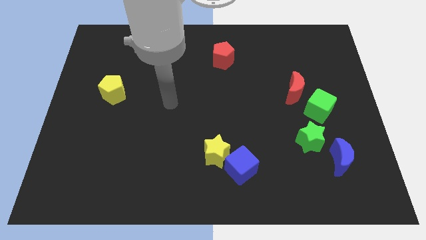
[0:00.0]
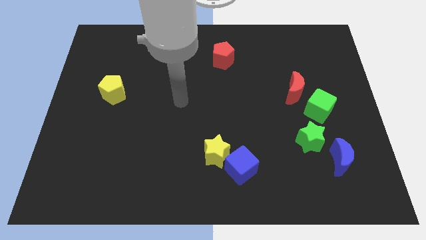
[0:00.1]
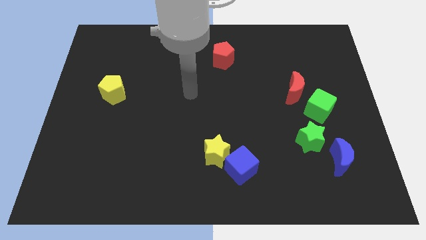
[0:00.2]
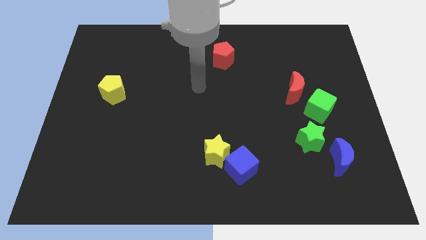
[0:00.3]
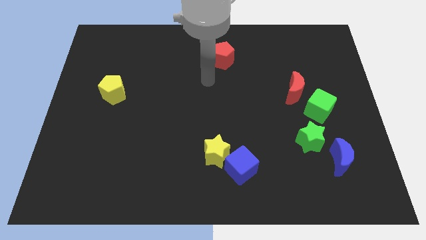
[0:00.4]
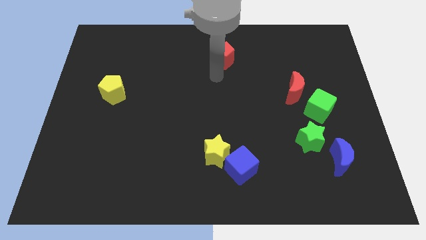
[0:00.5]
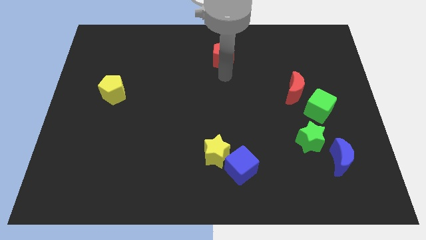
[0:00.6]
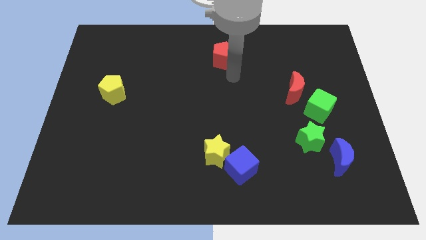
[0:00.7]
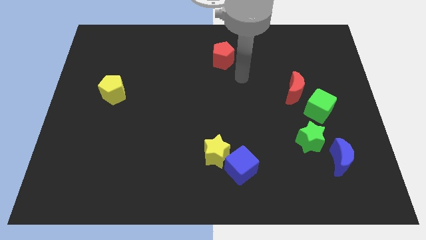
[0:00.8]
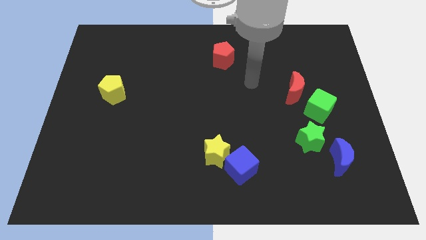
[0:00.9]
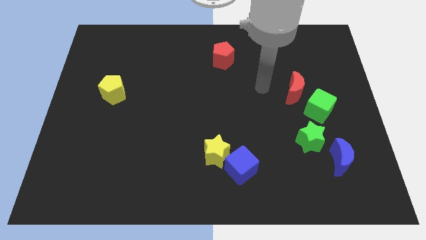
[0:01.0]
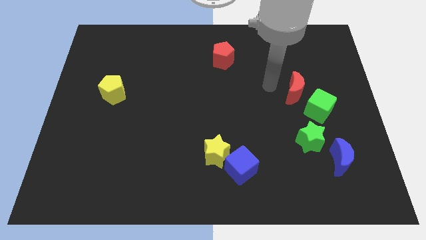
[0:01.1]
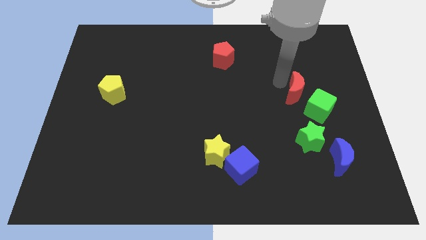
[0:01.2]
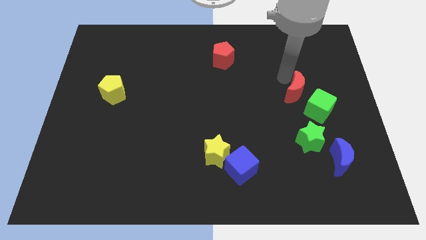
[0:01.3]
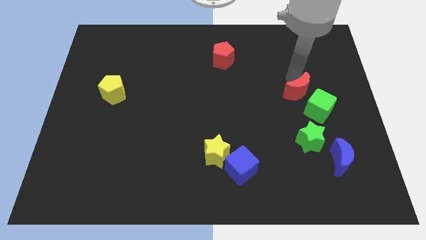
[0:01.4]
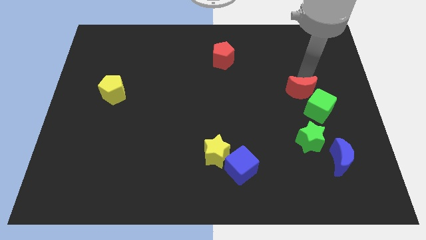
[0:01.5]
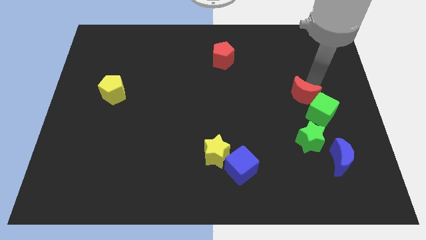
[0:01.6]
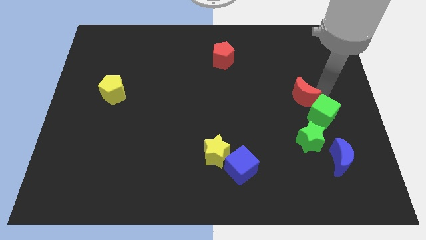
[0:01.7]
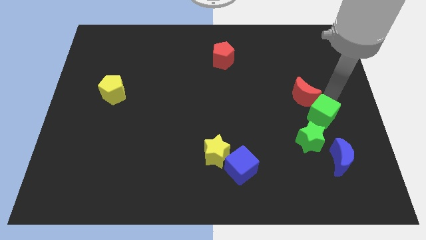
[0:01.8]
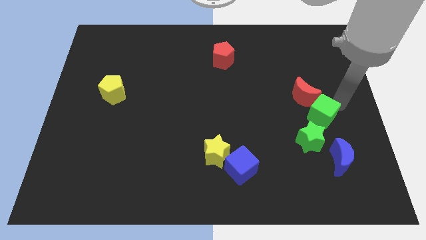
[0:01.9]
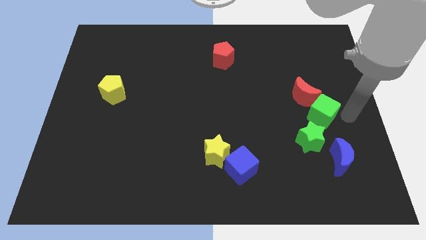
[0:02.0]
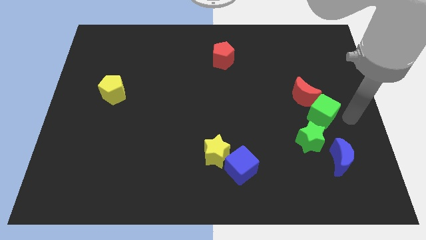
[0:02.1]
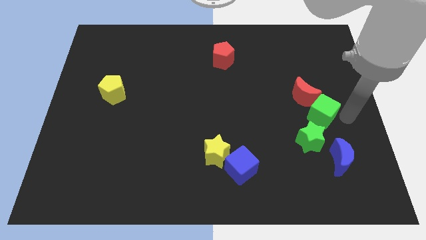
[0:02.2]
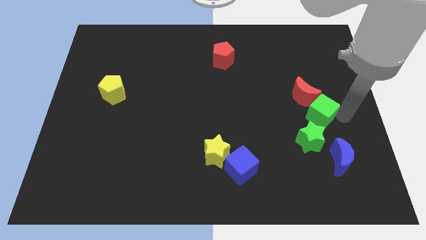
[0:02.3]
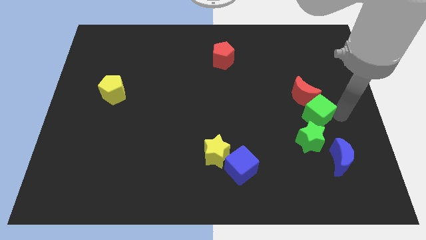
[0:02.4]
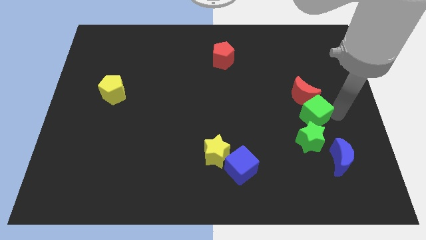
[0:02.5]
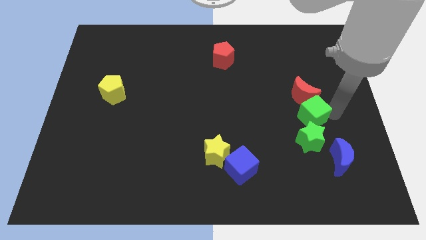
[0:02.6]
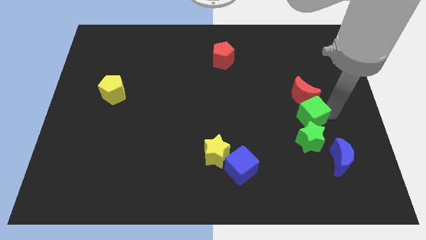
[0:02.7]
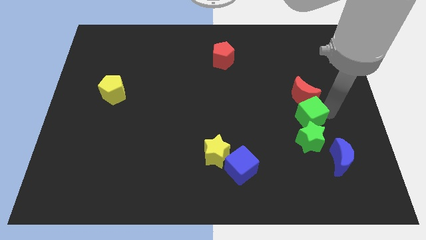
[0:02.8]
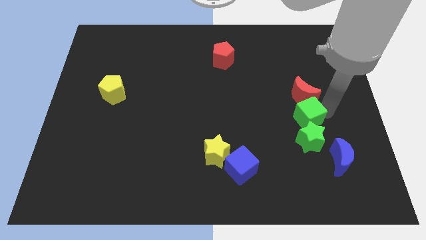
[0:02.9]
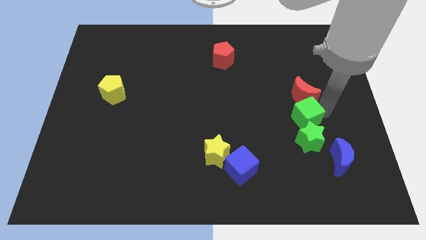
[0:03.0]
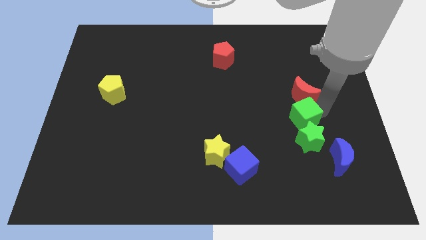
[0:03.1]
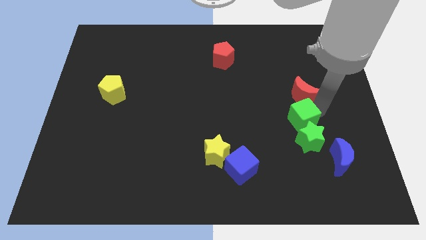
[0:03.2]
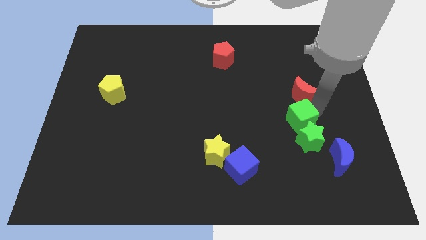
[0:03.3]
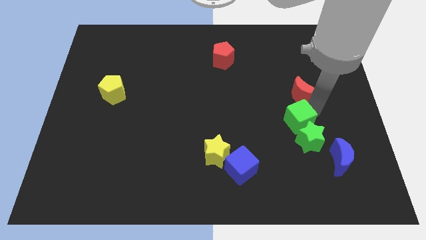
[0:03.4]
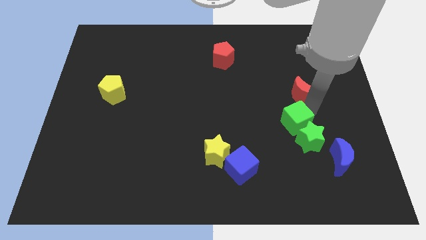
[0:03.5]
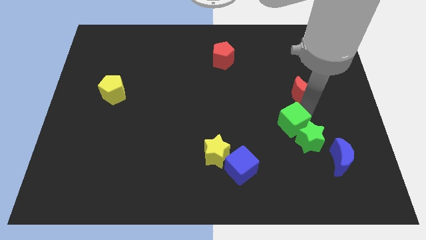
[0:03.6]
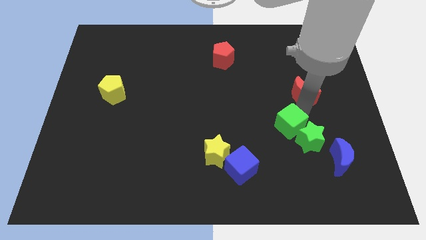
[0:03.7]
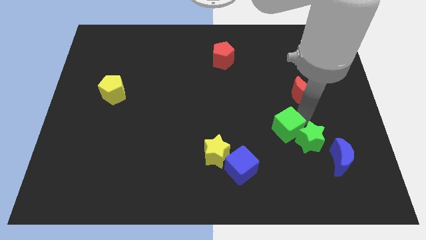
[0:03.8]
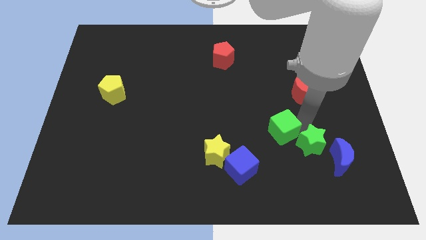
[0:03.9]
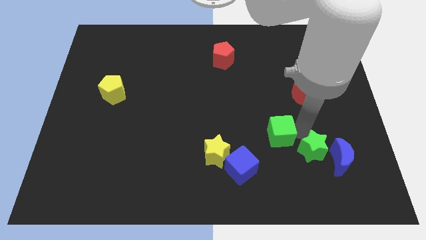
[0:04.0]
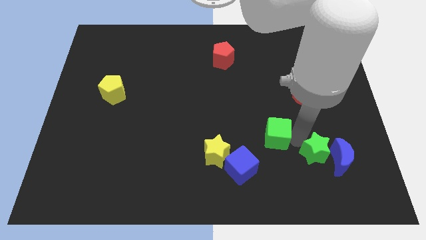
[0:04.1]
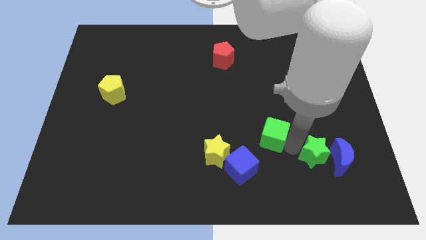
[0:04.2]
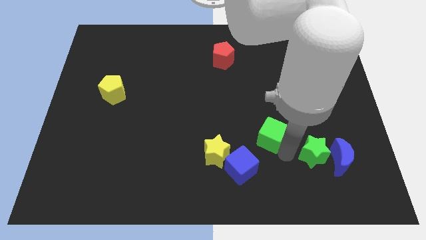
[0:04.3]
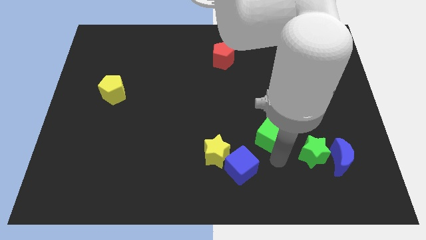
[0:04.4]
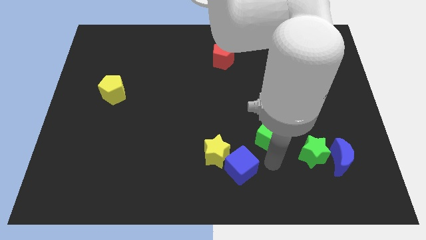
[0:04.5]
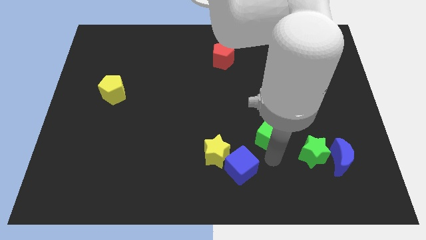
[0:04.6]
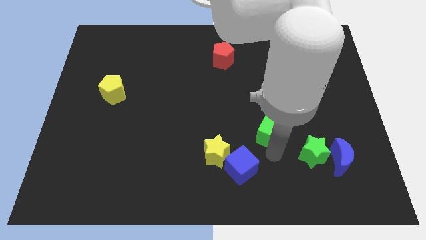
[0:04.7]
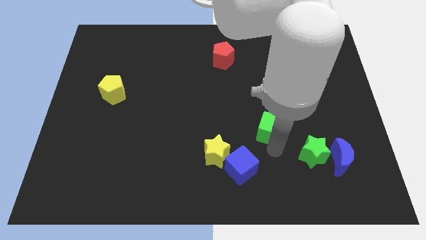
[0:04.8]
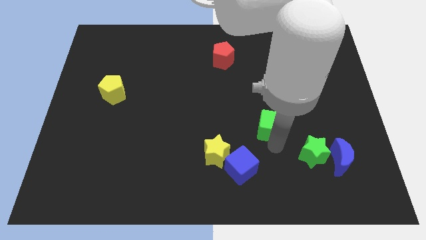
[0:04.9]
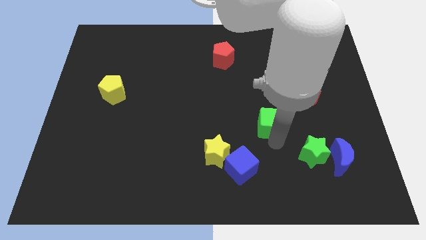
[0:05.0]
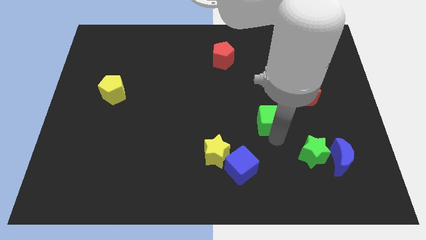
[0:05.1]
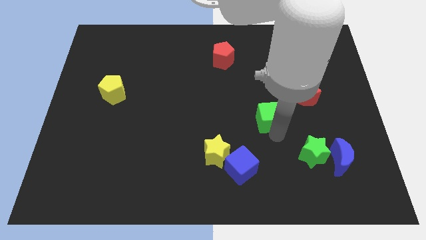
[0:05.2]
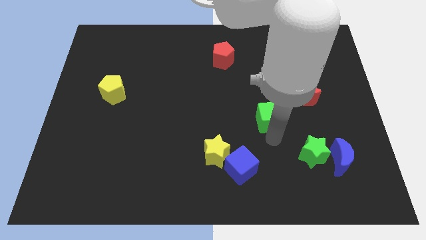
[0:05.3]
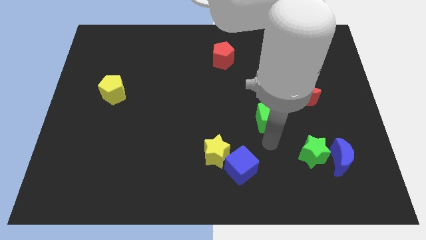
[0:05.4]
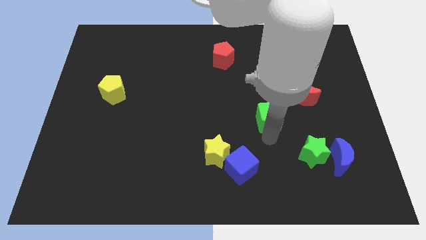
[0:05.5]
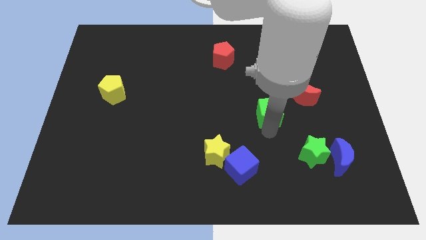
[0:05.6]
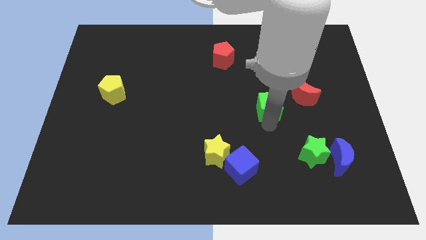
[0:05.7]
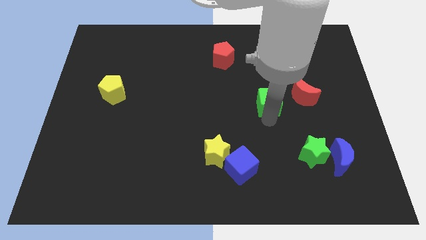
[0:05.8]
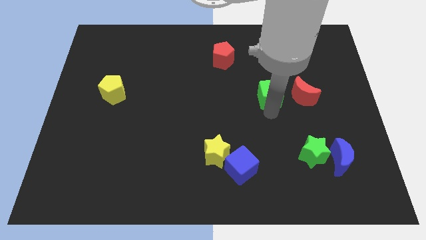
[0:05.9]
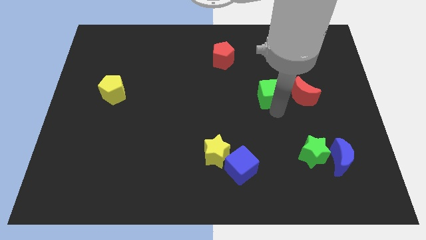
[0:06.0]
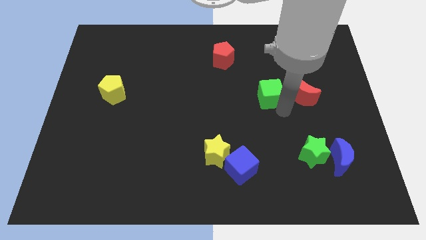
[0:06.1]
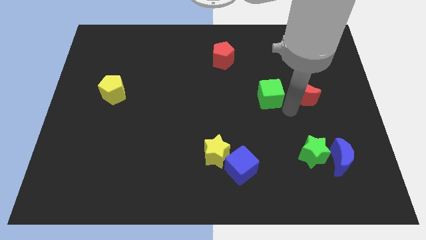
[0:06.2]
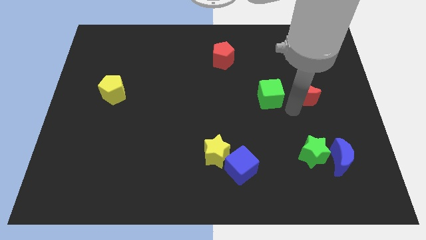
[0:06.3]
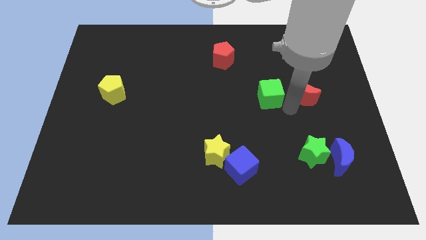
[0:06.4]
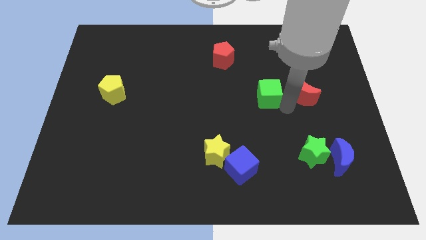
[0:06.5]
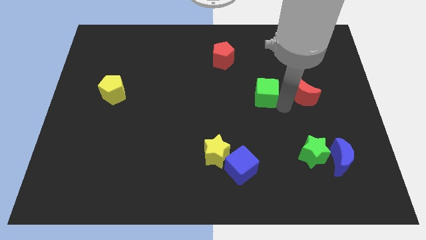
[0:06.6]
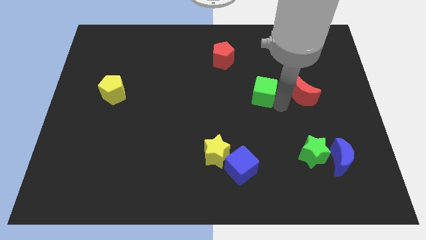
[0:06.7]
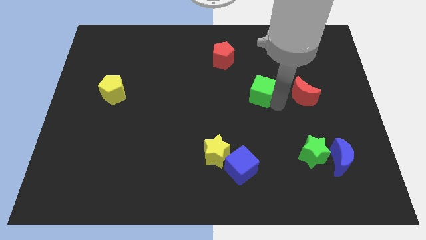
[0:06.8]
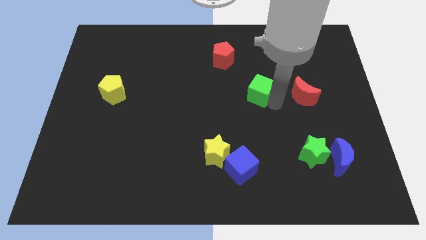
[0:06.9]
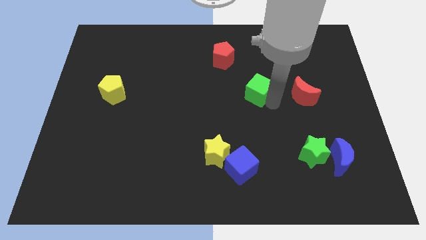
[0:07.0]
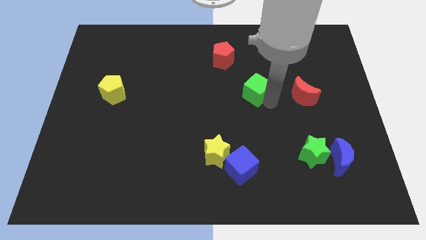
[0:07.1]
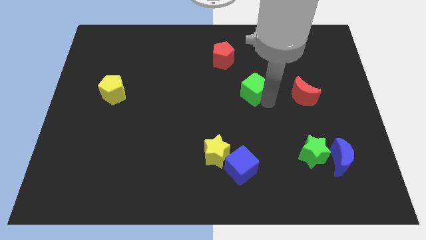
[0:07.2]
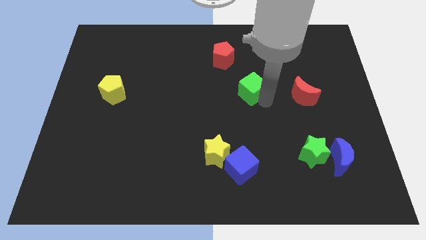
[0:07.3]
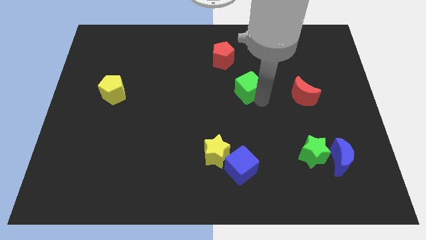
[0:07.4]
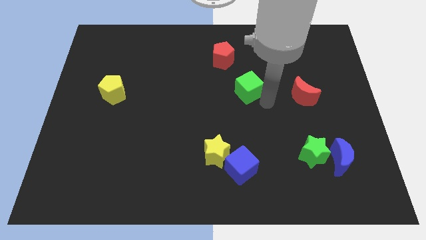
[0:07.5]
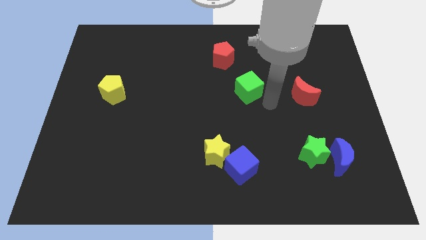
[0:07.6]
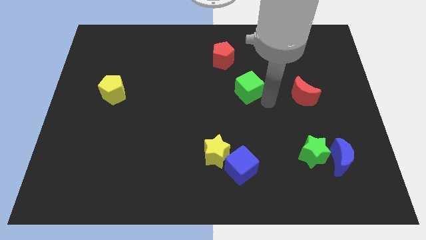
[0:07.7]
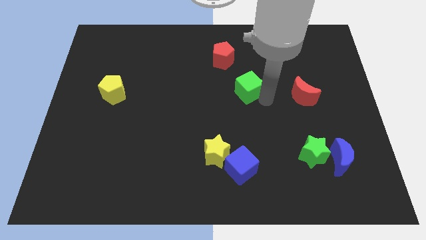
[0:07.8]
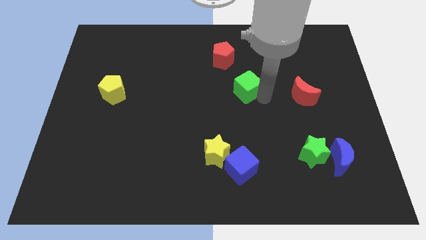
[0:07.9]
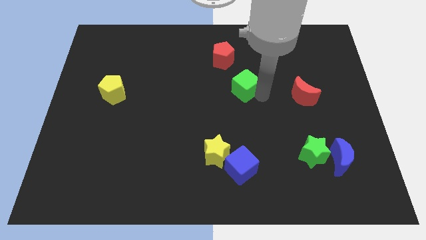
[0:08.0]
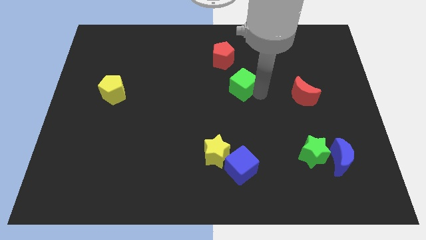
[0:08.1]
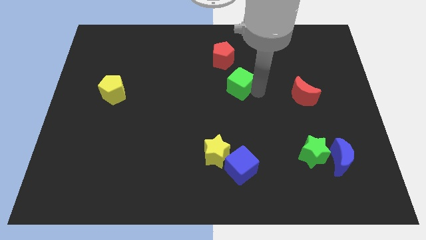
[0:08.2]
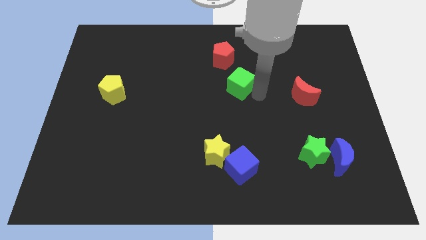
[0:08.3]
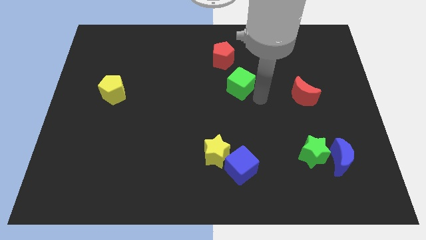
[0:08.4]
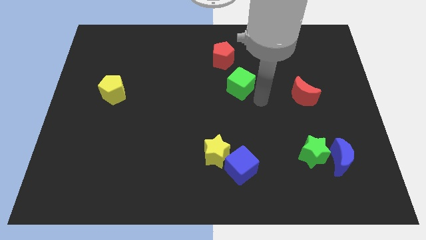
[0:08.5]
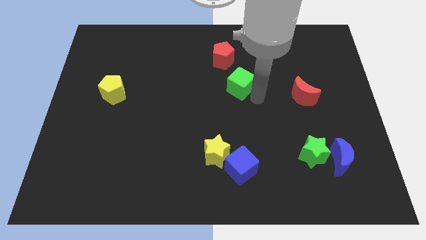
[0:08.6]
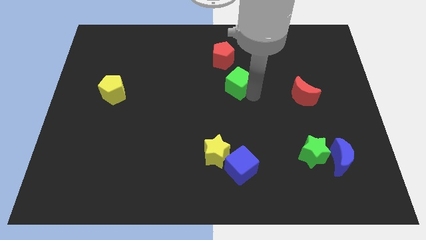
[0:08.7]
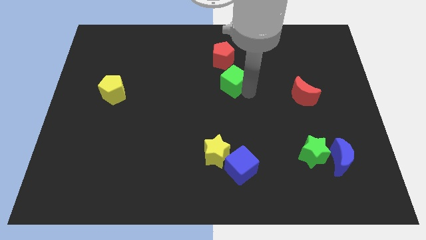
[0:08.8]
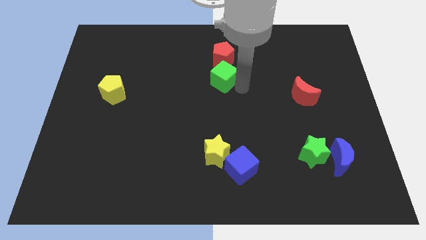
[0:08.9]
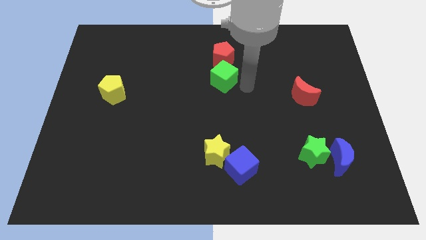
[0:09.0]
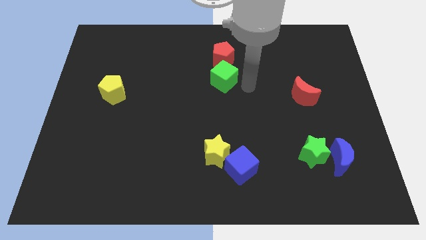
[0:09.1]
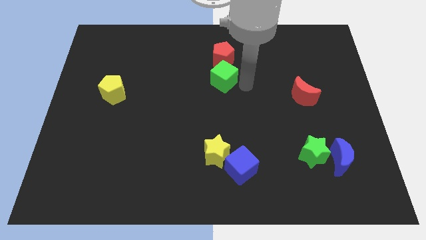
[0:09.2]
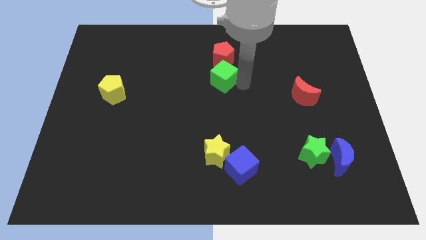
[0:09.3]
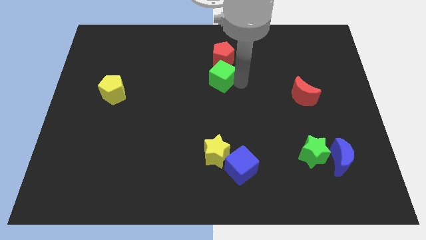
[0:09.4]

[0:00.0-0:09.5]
slide the green cube to the bottom left of the red pentagon
